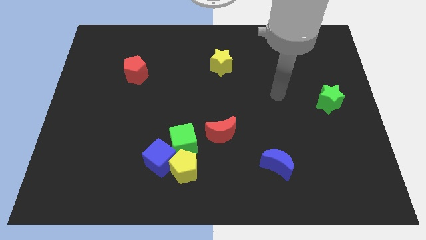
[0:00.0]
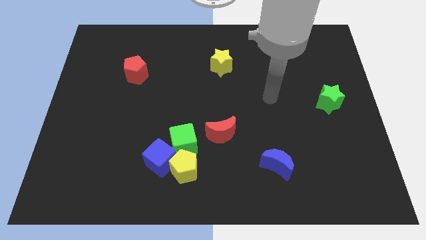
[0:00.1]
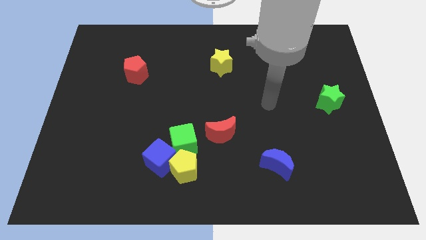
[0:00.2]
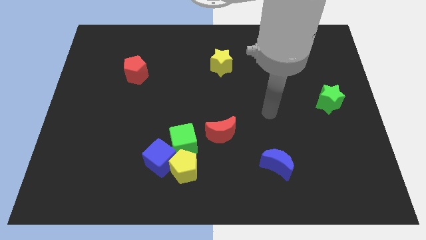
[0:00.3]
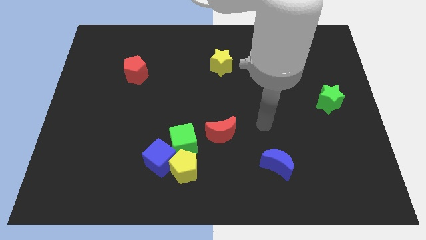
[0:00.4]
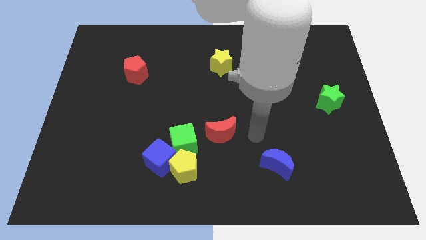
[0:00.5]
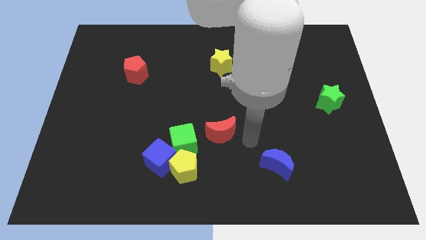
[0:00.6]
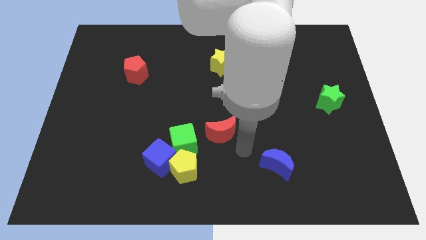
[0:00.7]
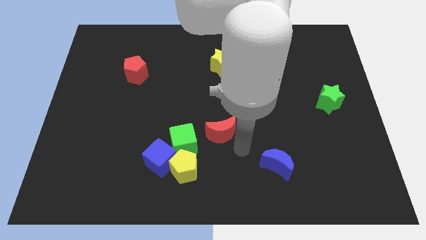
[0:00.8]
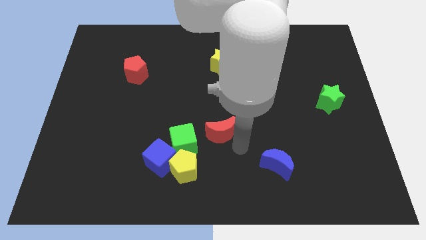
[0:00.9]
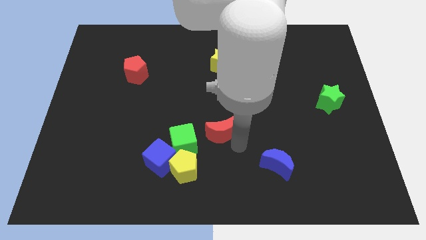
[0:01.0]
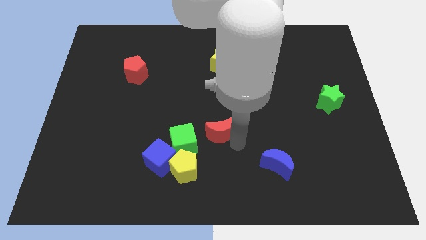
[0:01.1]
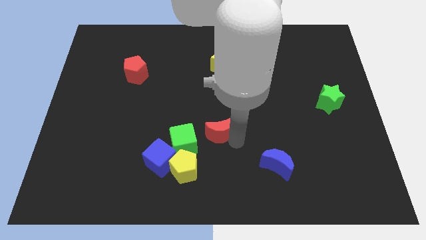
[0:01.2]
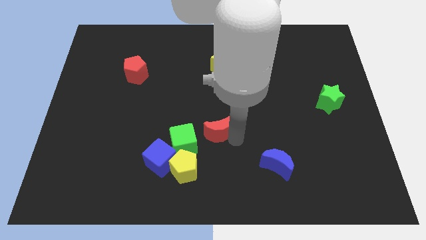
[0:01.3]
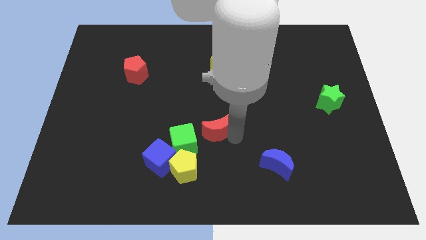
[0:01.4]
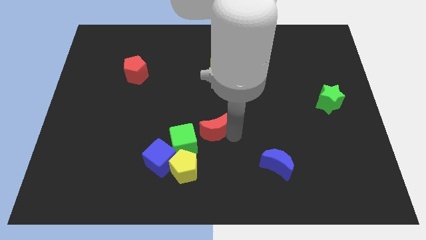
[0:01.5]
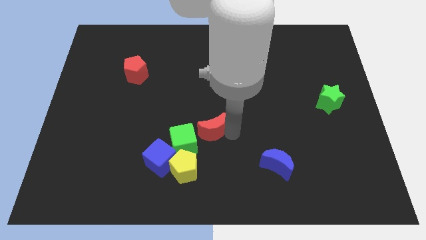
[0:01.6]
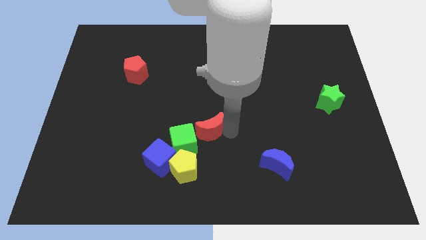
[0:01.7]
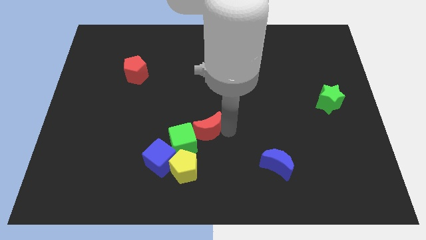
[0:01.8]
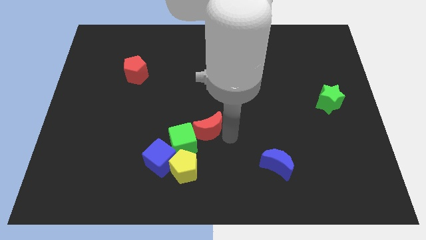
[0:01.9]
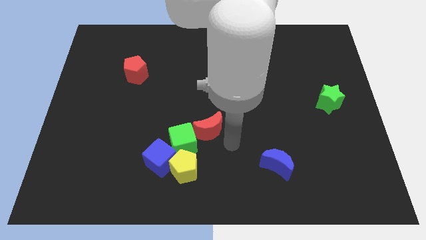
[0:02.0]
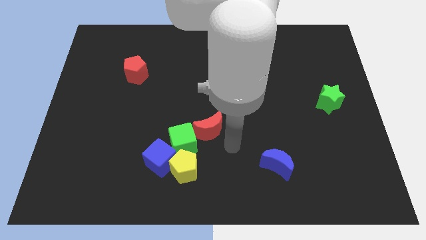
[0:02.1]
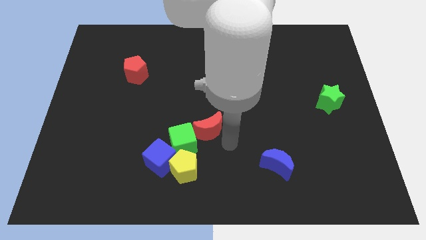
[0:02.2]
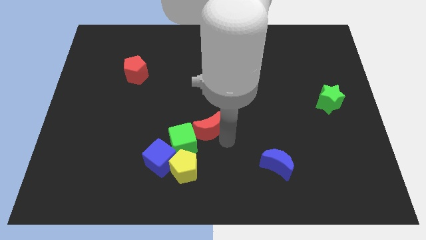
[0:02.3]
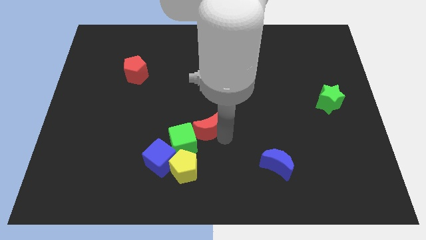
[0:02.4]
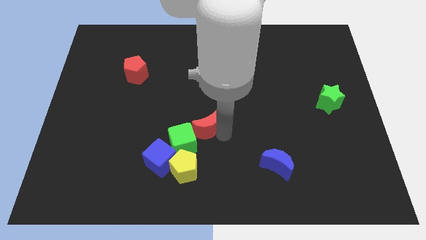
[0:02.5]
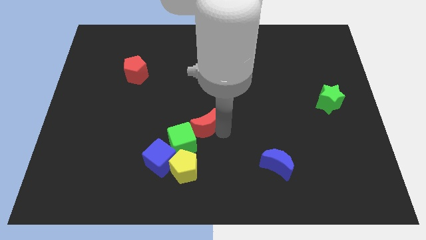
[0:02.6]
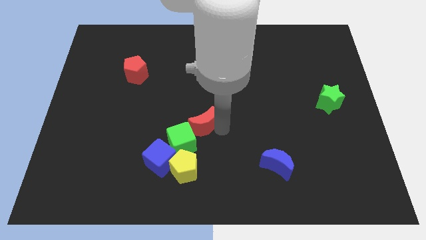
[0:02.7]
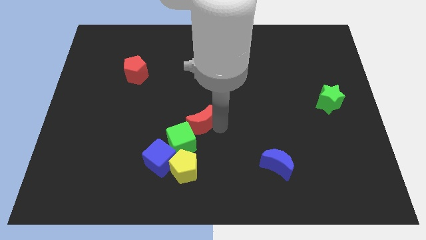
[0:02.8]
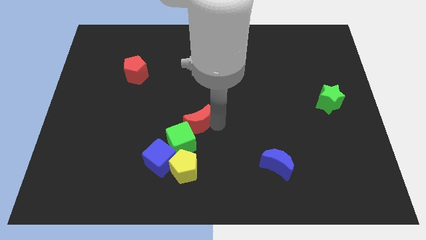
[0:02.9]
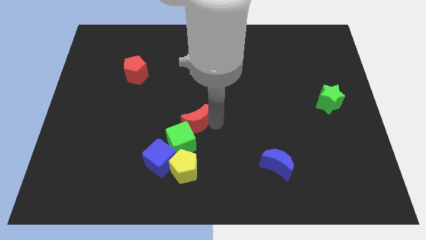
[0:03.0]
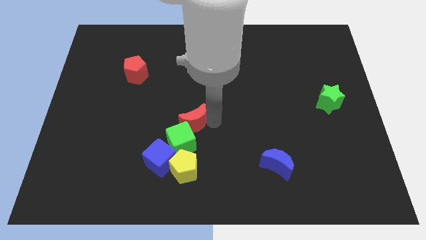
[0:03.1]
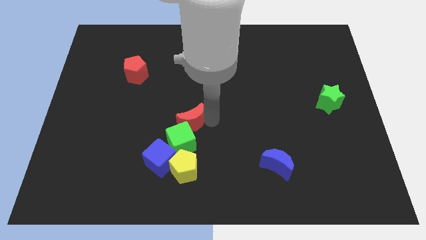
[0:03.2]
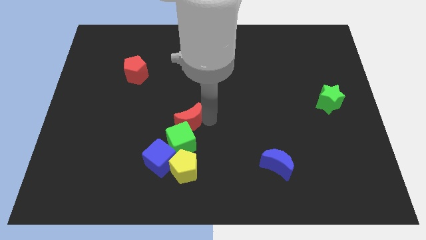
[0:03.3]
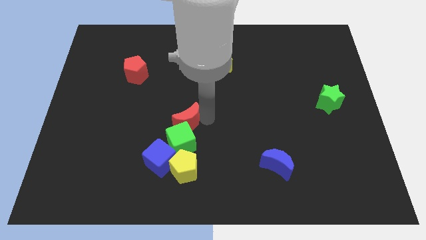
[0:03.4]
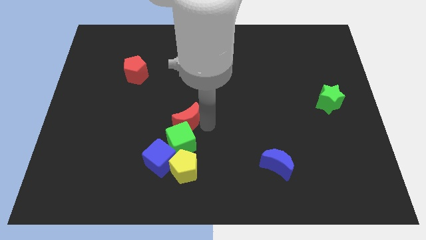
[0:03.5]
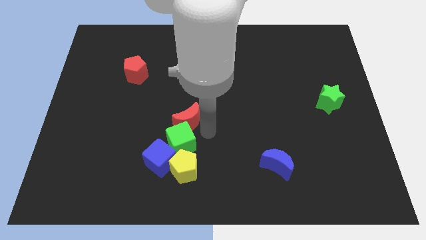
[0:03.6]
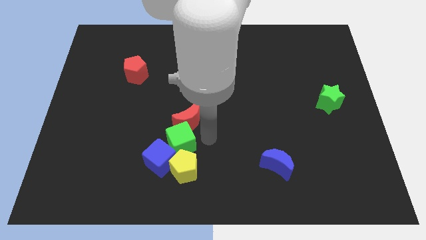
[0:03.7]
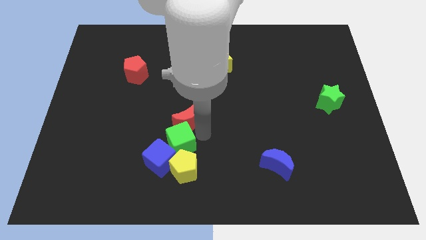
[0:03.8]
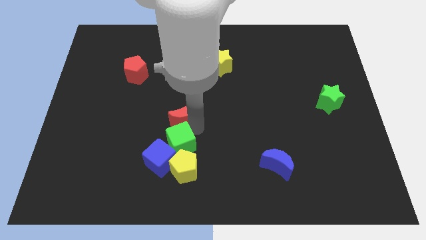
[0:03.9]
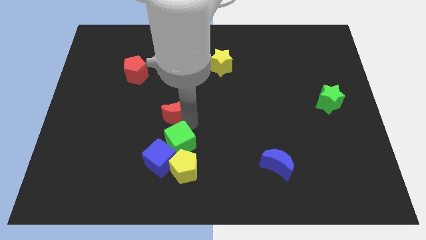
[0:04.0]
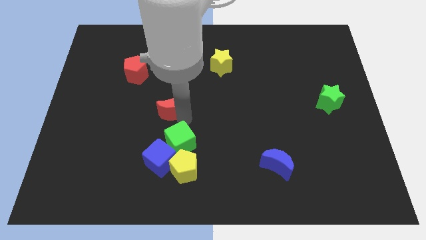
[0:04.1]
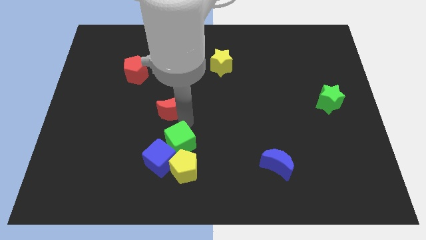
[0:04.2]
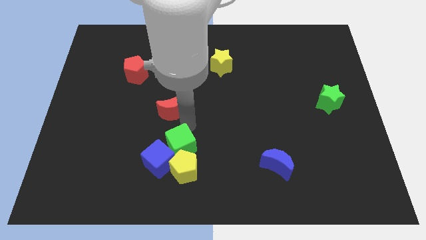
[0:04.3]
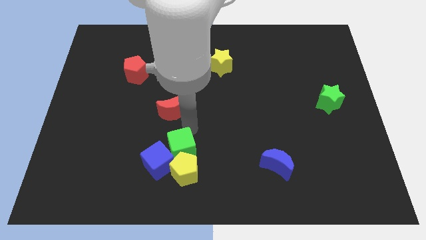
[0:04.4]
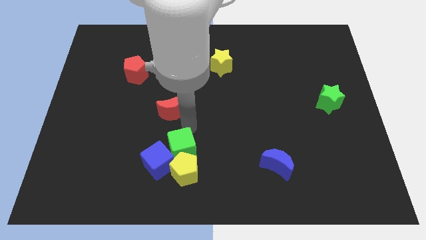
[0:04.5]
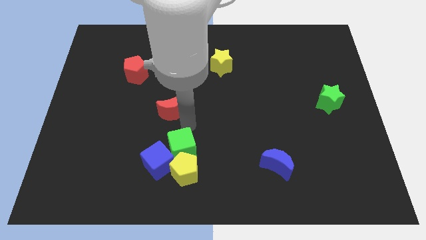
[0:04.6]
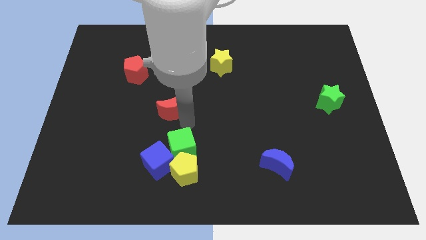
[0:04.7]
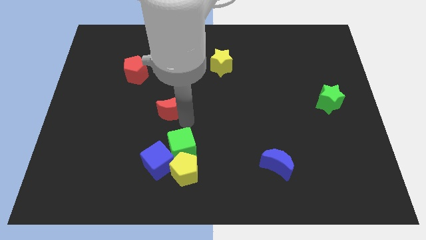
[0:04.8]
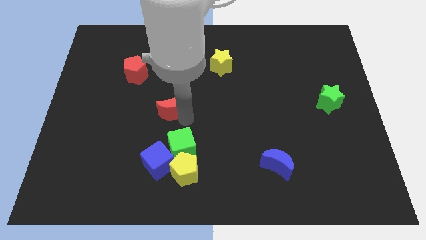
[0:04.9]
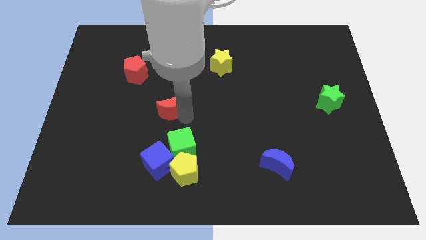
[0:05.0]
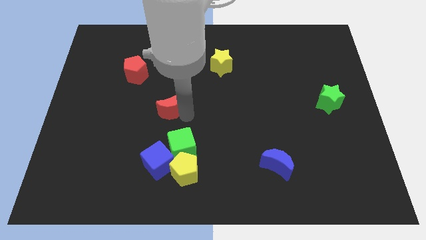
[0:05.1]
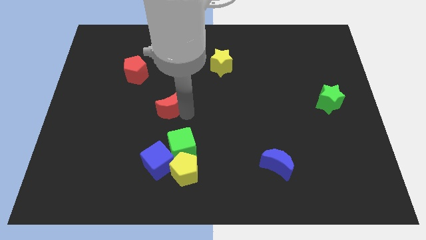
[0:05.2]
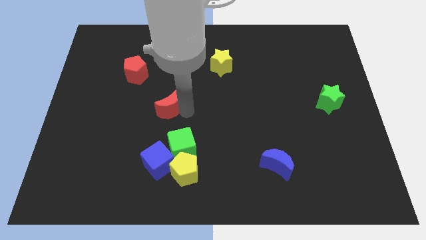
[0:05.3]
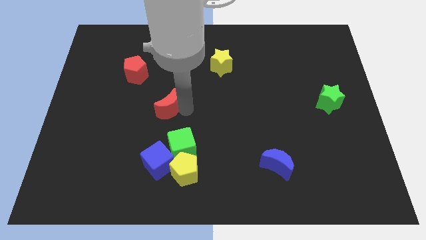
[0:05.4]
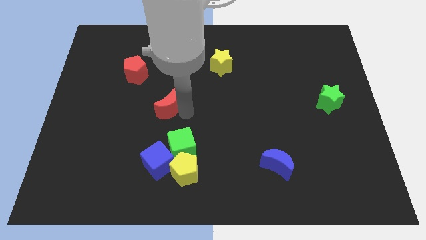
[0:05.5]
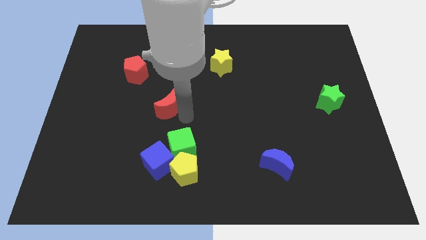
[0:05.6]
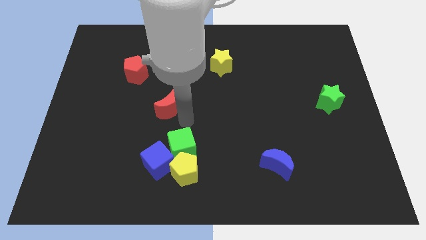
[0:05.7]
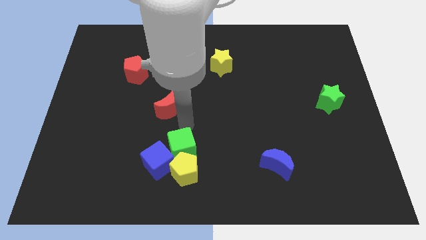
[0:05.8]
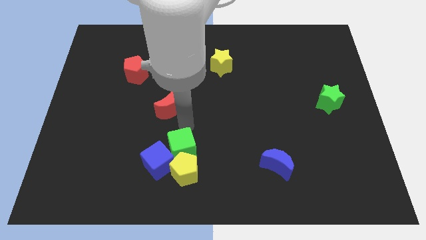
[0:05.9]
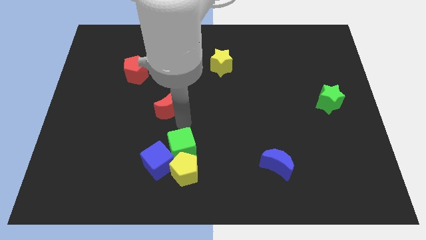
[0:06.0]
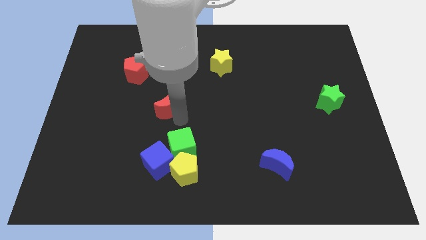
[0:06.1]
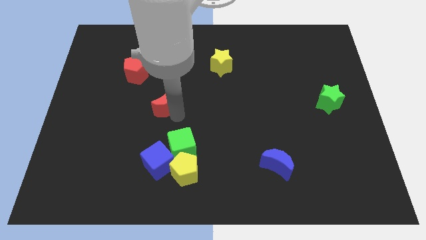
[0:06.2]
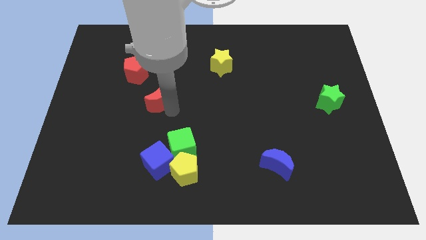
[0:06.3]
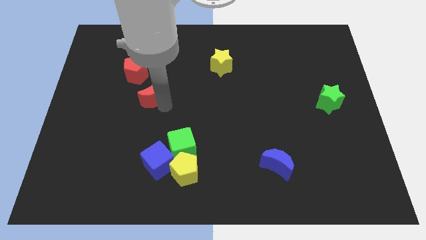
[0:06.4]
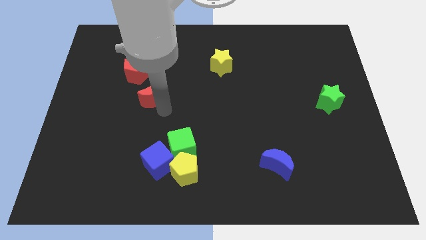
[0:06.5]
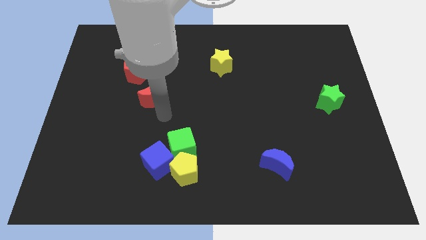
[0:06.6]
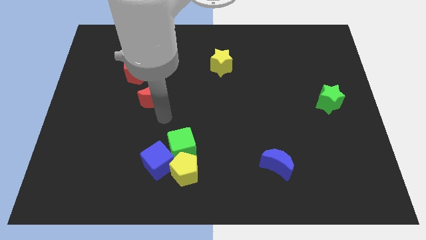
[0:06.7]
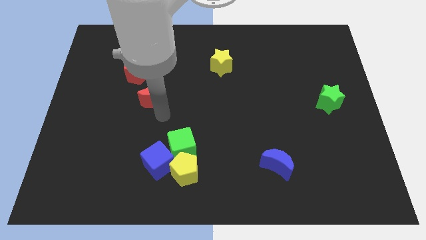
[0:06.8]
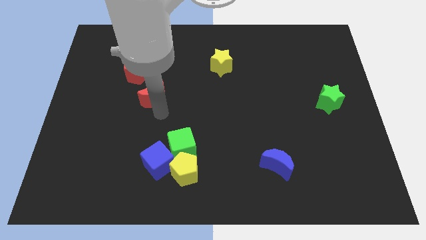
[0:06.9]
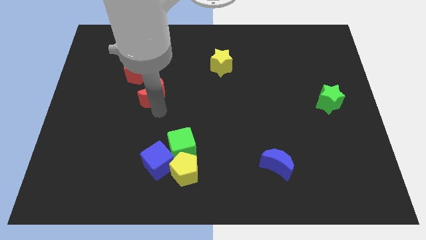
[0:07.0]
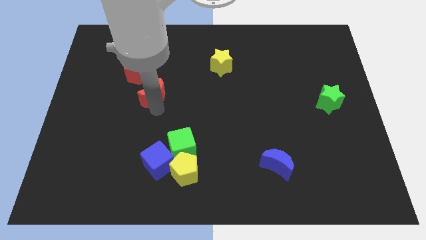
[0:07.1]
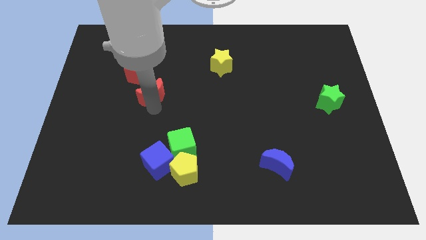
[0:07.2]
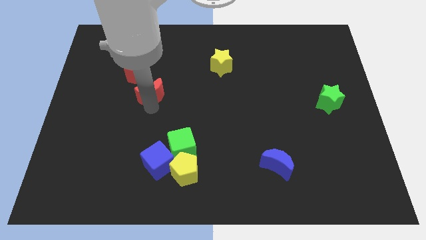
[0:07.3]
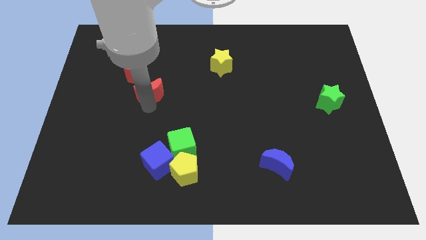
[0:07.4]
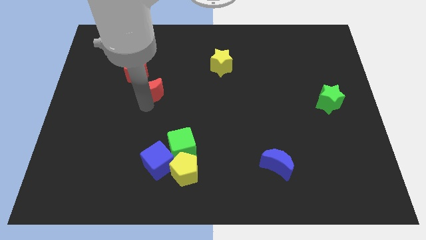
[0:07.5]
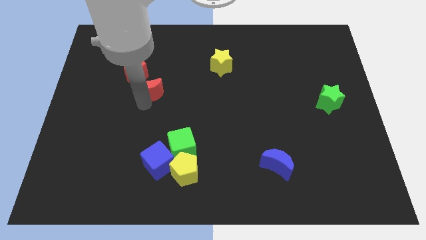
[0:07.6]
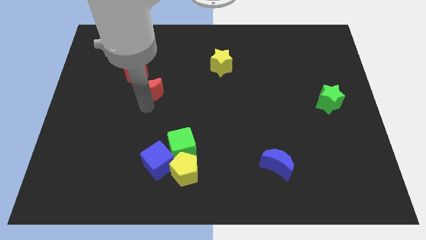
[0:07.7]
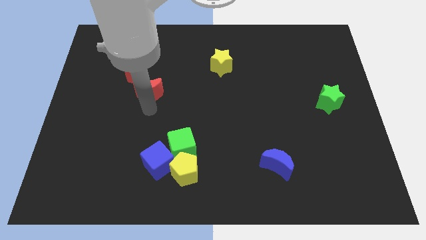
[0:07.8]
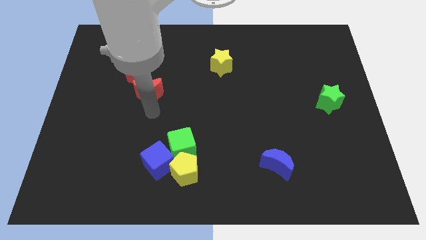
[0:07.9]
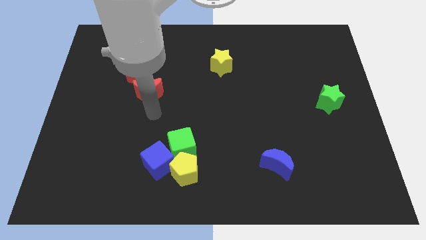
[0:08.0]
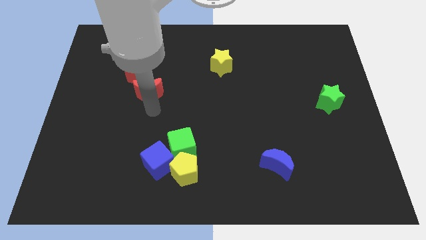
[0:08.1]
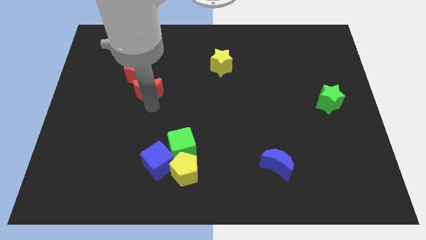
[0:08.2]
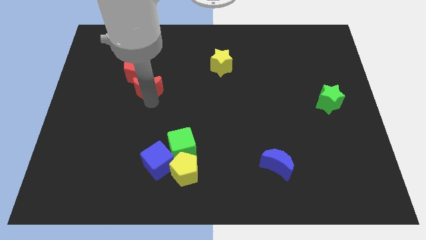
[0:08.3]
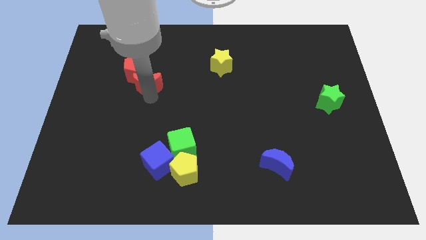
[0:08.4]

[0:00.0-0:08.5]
slide the red moon to the red pentagon
